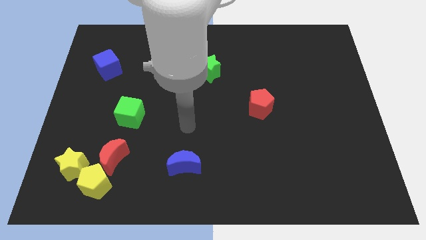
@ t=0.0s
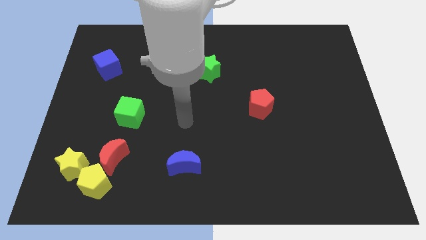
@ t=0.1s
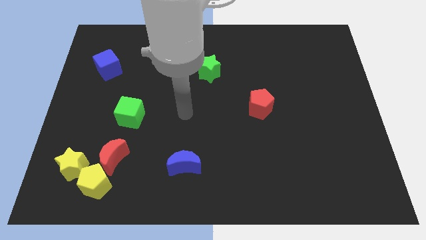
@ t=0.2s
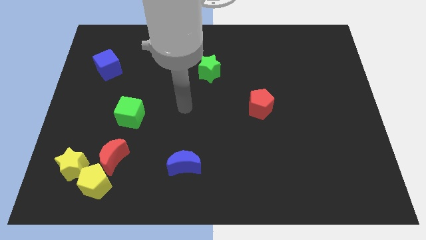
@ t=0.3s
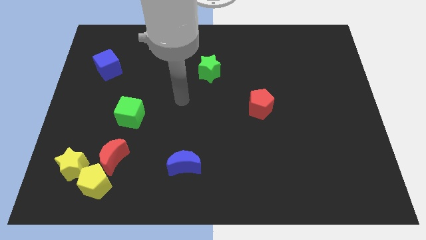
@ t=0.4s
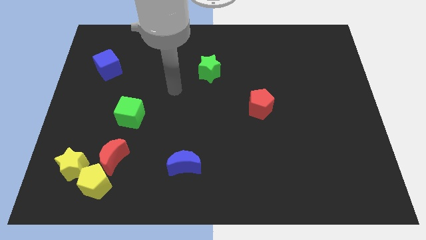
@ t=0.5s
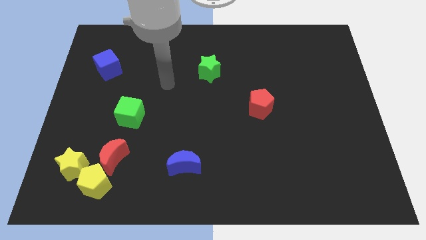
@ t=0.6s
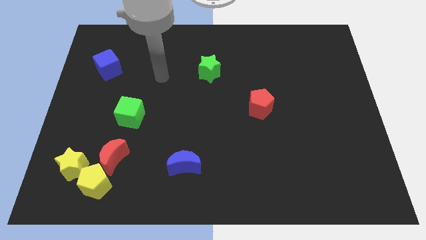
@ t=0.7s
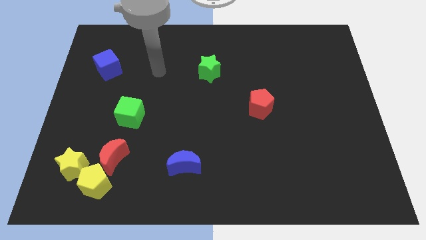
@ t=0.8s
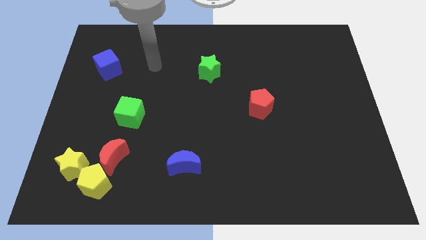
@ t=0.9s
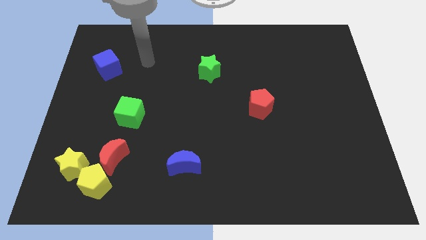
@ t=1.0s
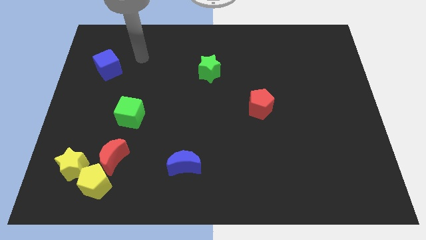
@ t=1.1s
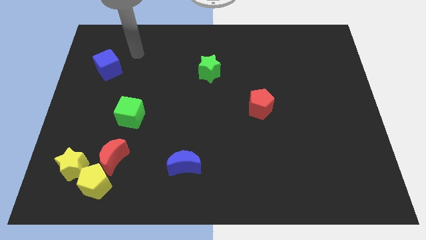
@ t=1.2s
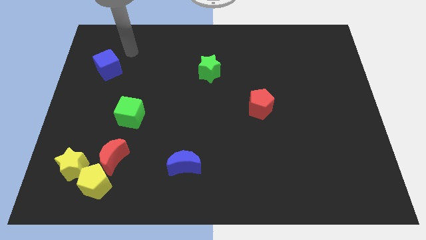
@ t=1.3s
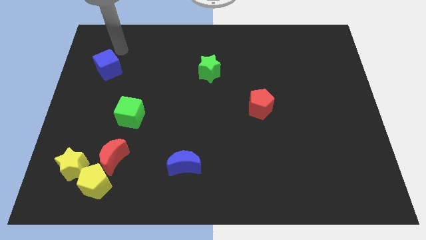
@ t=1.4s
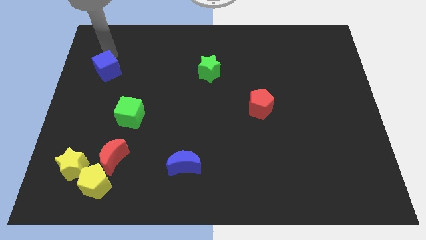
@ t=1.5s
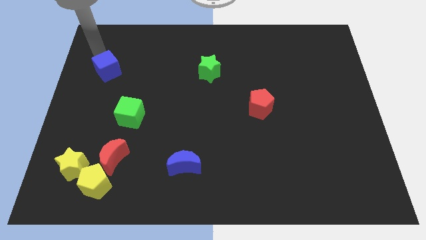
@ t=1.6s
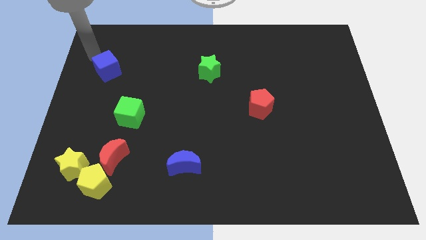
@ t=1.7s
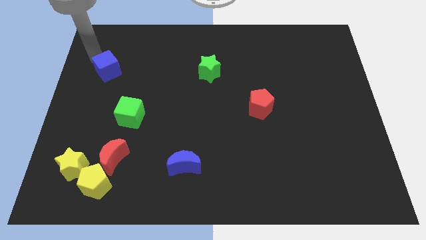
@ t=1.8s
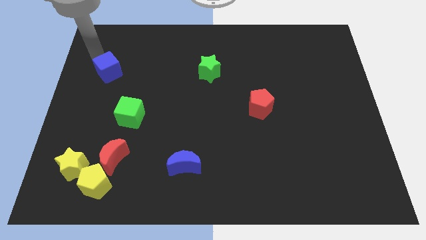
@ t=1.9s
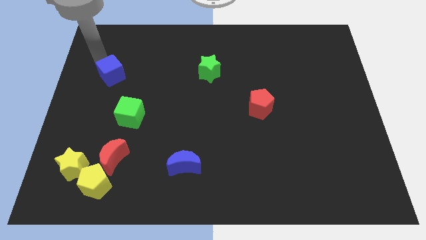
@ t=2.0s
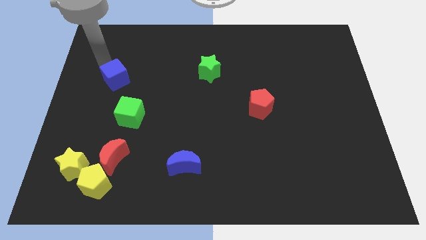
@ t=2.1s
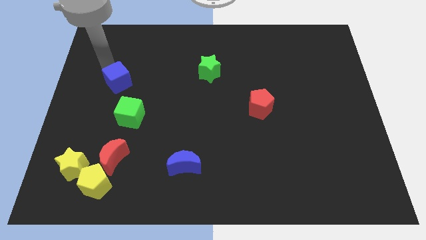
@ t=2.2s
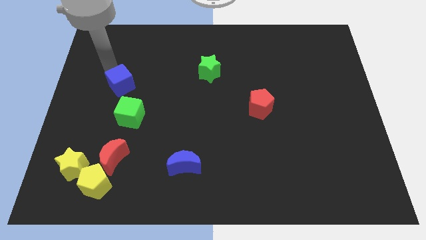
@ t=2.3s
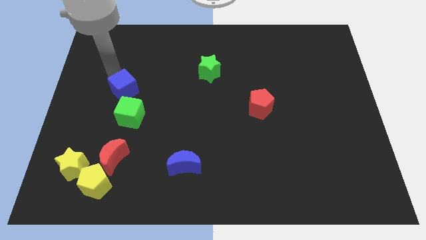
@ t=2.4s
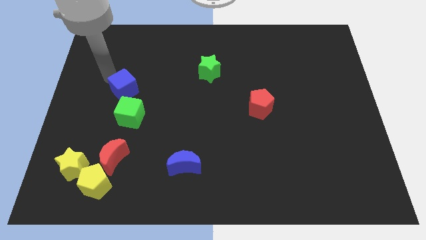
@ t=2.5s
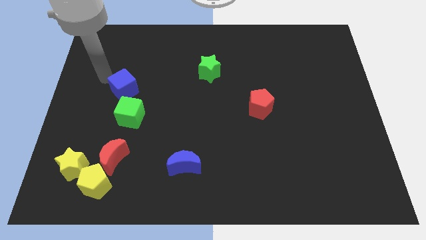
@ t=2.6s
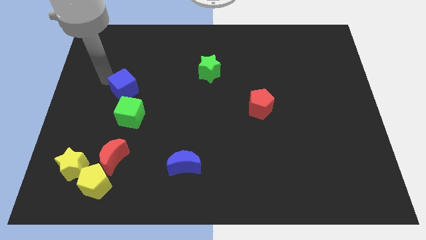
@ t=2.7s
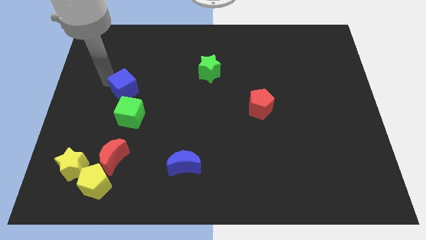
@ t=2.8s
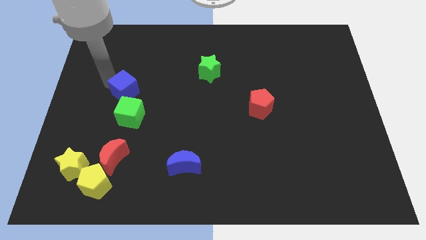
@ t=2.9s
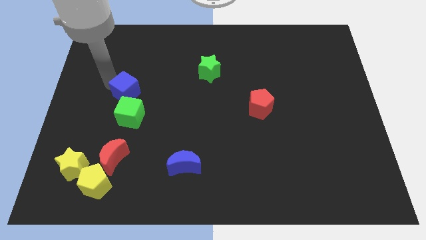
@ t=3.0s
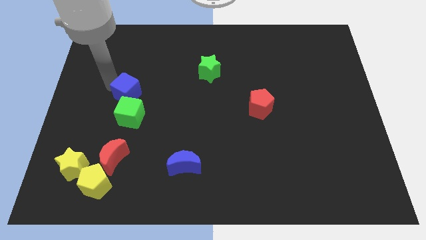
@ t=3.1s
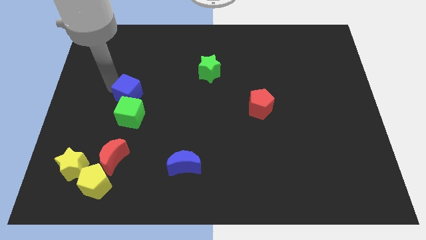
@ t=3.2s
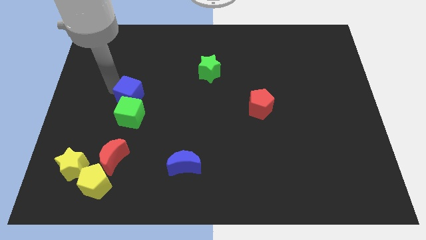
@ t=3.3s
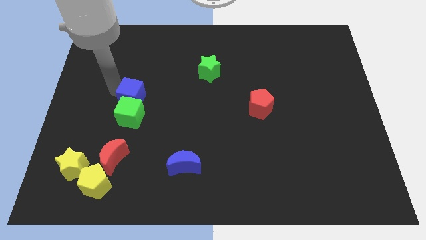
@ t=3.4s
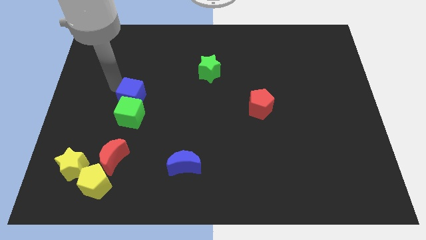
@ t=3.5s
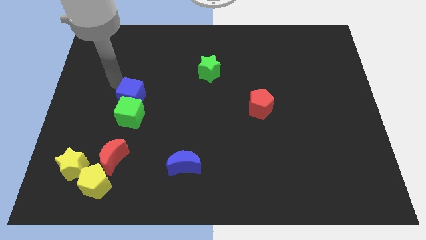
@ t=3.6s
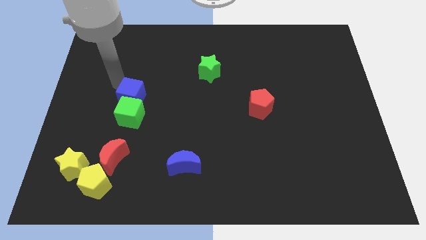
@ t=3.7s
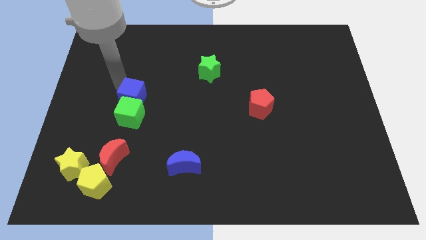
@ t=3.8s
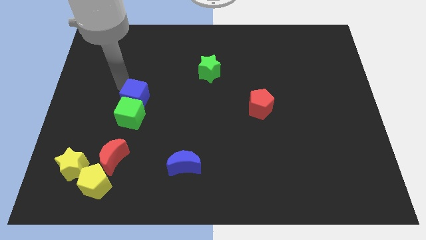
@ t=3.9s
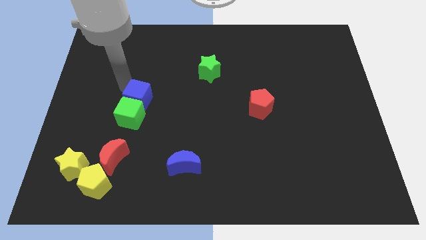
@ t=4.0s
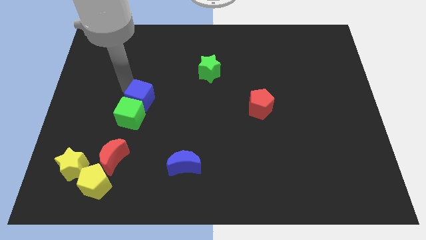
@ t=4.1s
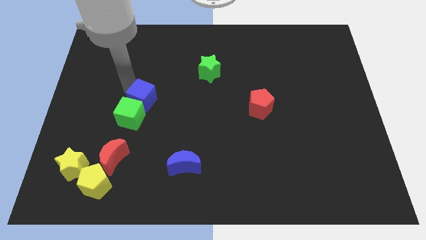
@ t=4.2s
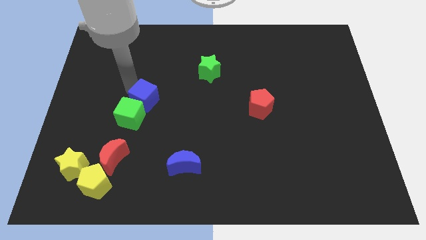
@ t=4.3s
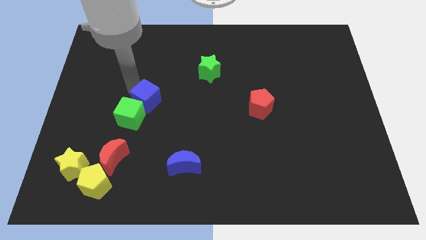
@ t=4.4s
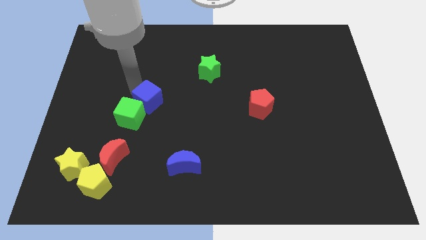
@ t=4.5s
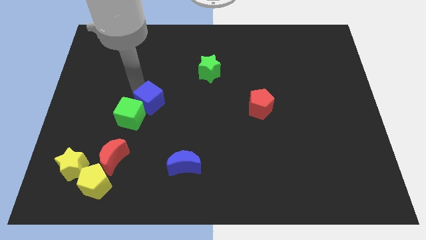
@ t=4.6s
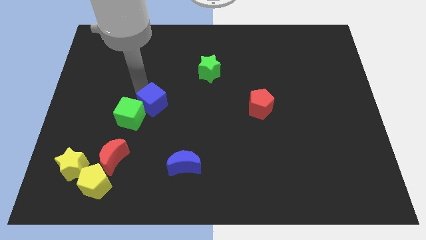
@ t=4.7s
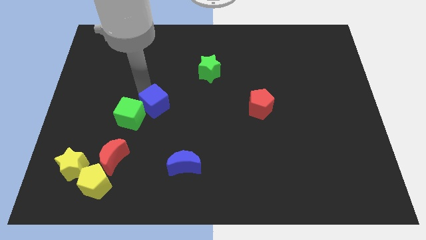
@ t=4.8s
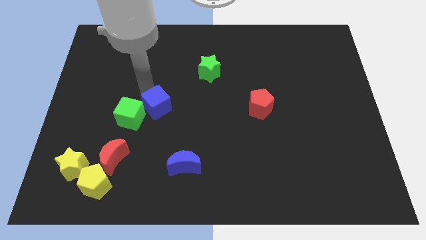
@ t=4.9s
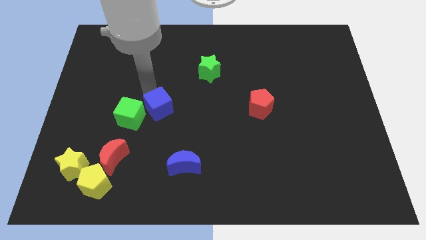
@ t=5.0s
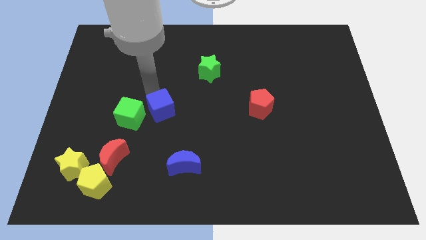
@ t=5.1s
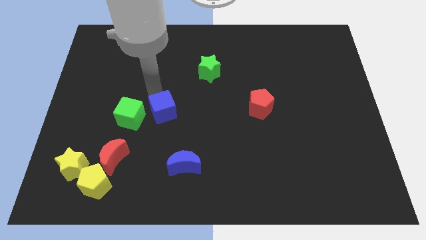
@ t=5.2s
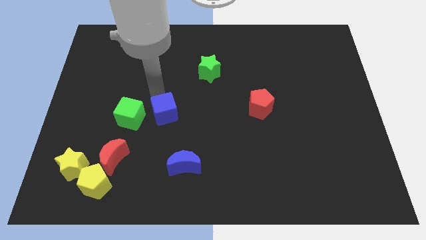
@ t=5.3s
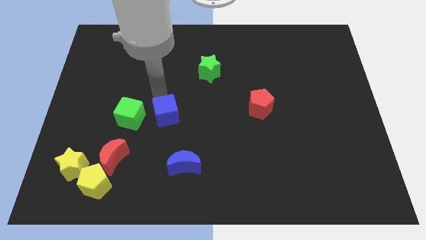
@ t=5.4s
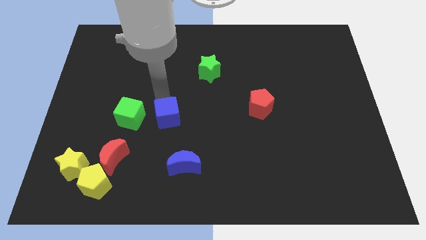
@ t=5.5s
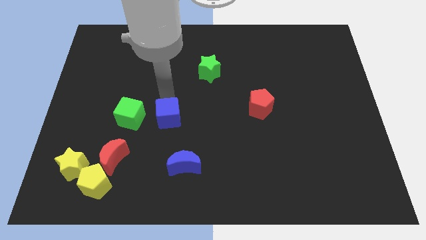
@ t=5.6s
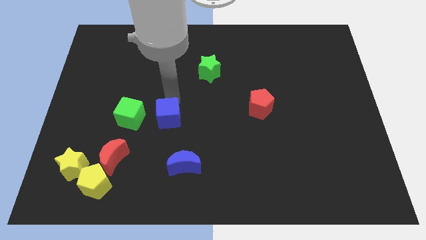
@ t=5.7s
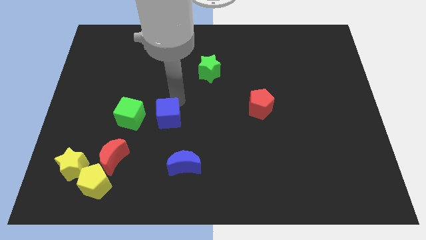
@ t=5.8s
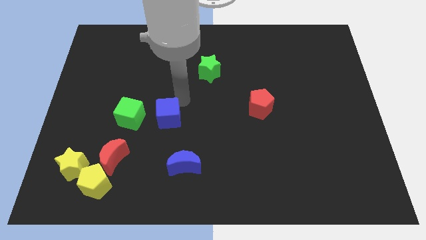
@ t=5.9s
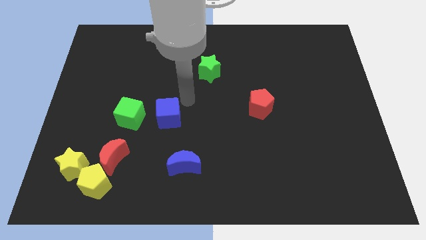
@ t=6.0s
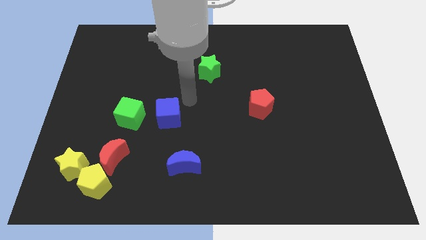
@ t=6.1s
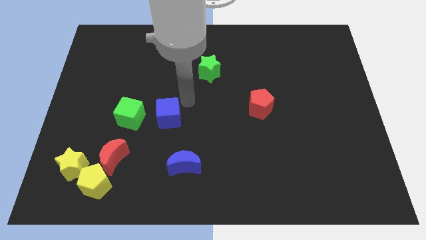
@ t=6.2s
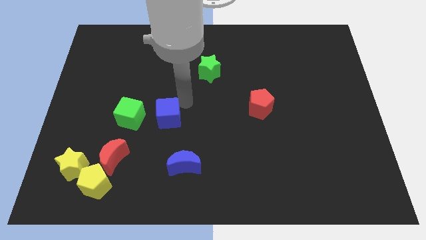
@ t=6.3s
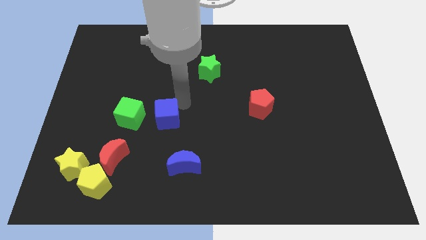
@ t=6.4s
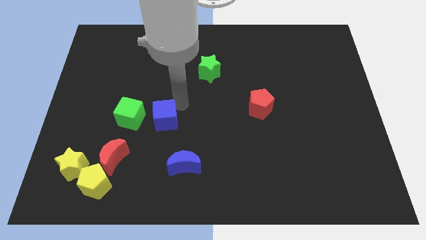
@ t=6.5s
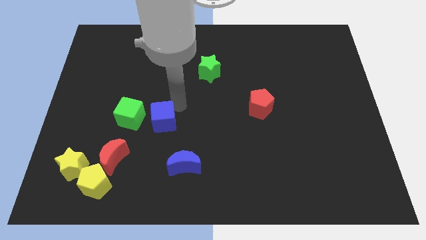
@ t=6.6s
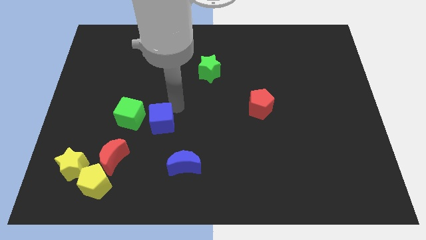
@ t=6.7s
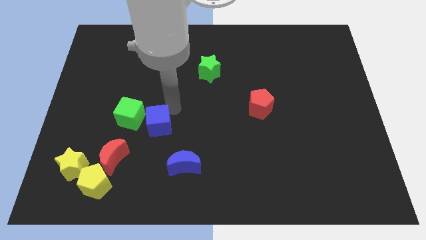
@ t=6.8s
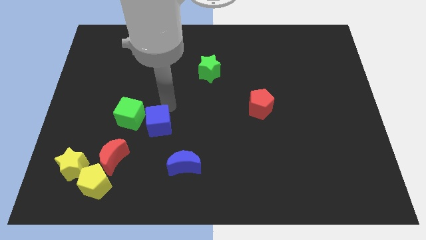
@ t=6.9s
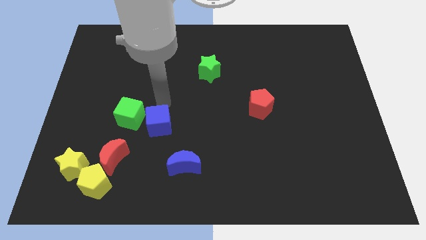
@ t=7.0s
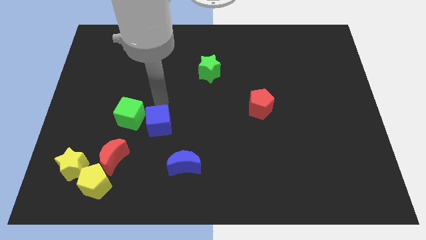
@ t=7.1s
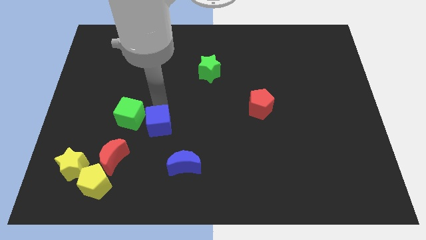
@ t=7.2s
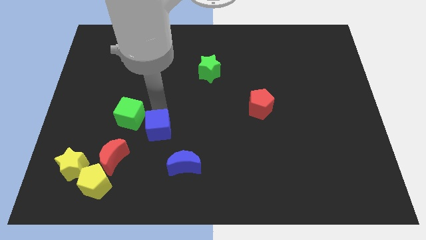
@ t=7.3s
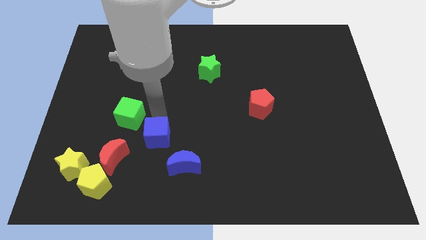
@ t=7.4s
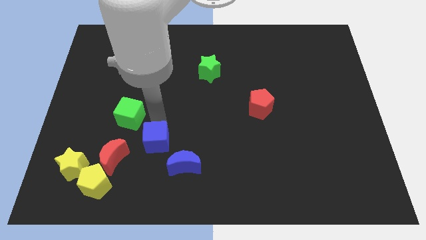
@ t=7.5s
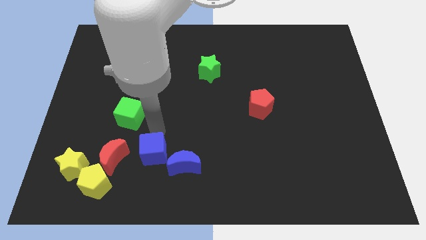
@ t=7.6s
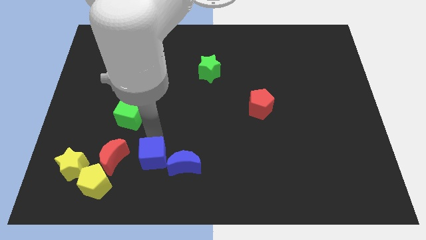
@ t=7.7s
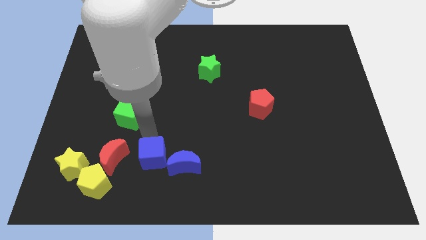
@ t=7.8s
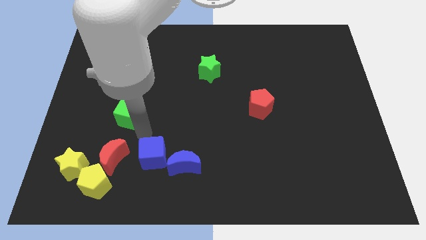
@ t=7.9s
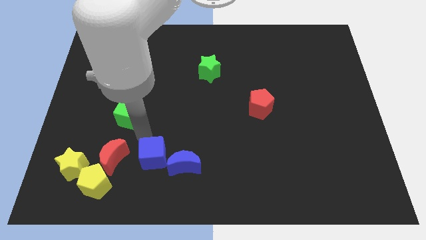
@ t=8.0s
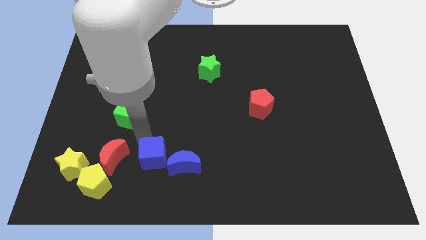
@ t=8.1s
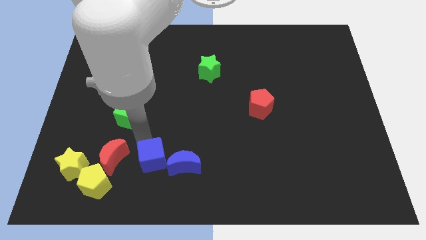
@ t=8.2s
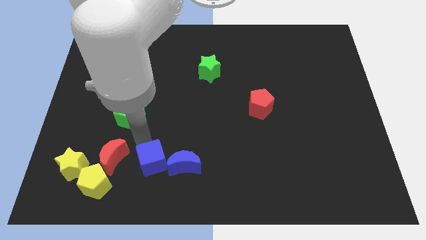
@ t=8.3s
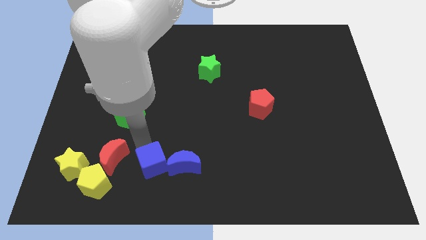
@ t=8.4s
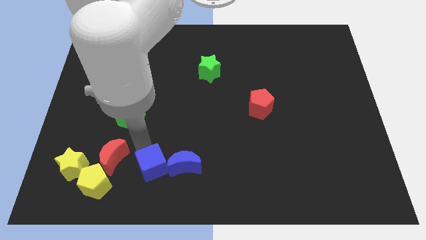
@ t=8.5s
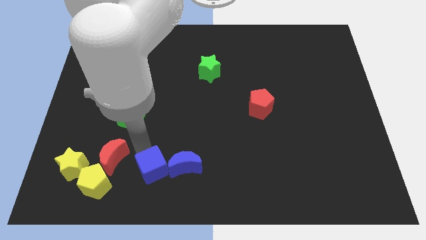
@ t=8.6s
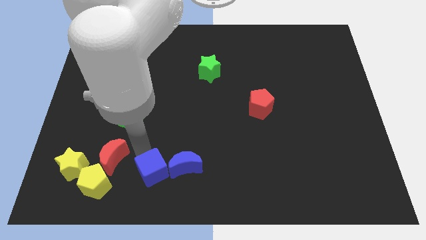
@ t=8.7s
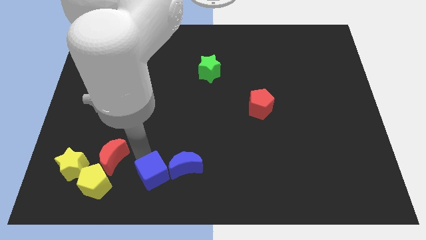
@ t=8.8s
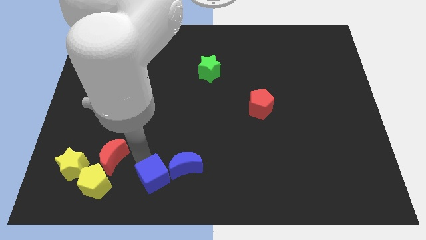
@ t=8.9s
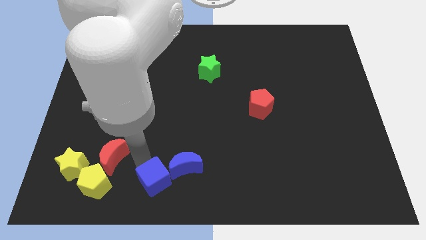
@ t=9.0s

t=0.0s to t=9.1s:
put the blue cube to the bottom side
